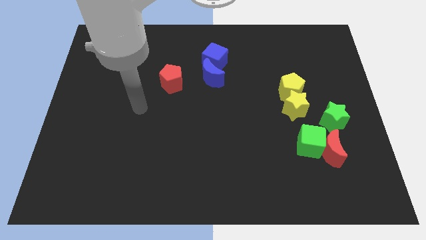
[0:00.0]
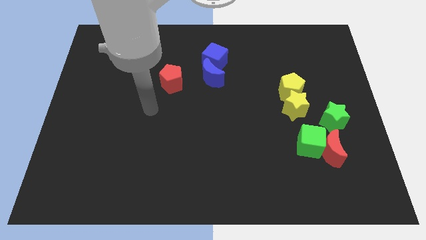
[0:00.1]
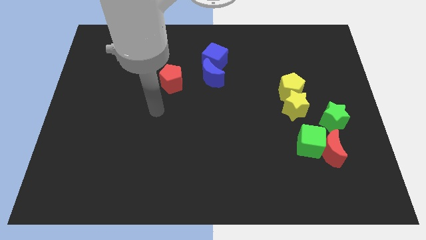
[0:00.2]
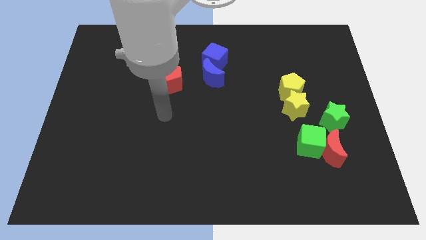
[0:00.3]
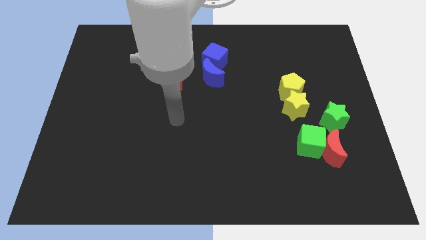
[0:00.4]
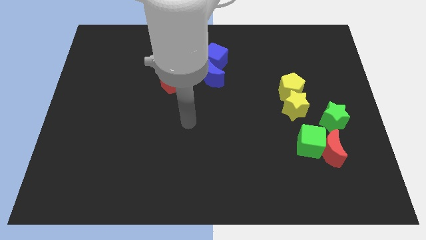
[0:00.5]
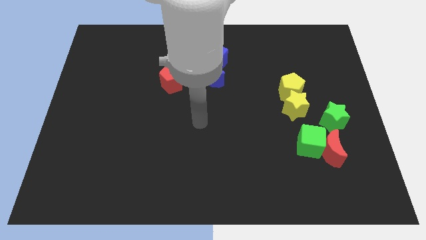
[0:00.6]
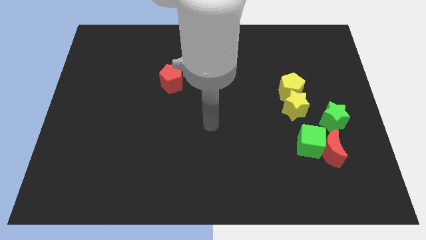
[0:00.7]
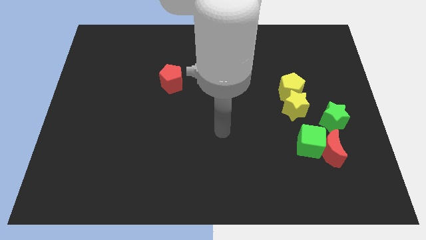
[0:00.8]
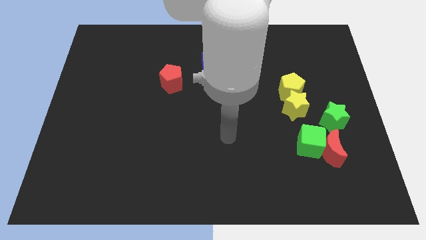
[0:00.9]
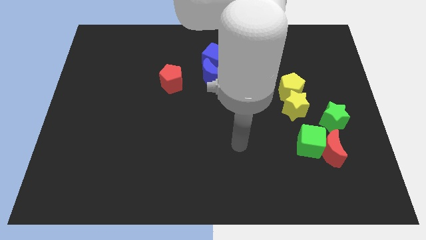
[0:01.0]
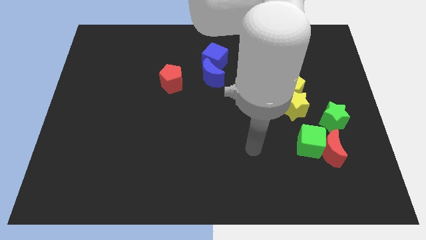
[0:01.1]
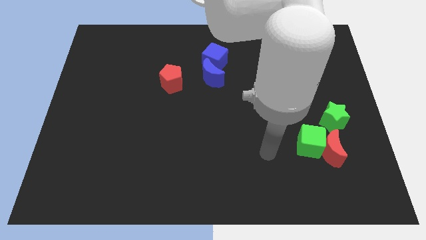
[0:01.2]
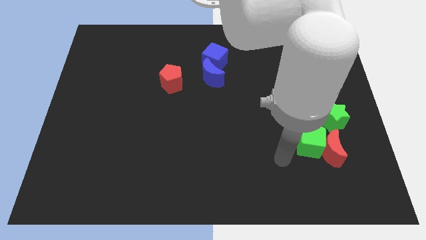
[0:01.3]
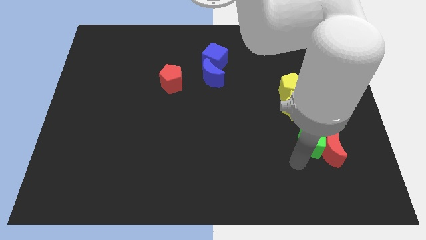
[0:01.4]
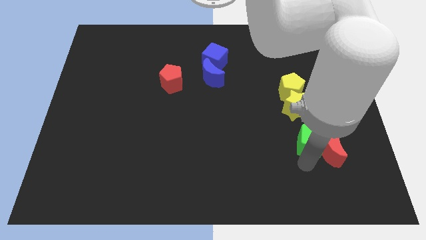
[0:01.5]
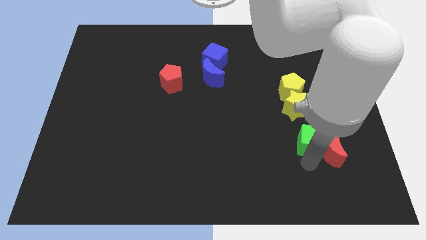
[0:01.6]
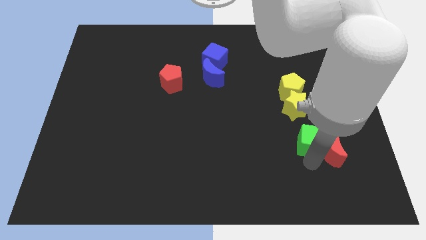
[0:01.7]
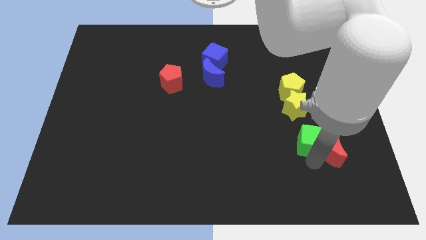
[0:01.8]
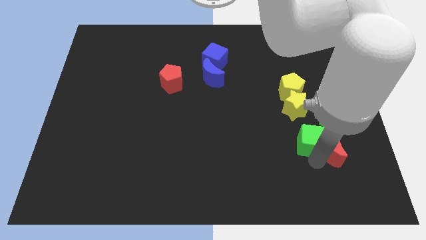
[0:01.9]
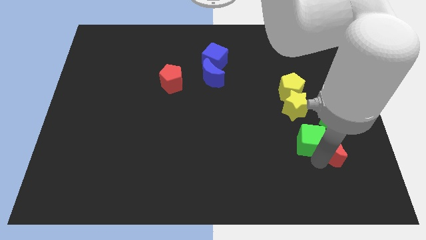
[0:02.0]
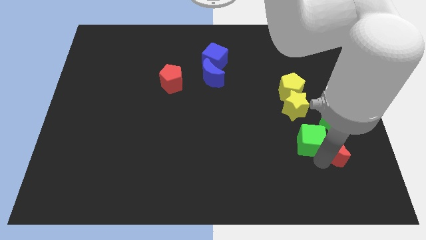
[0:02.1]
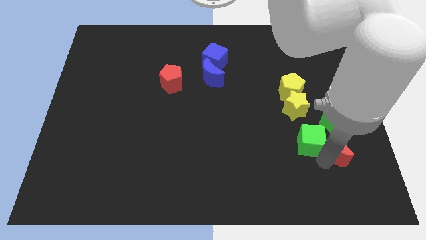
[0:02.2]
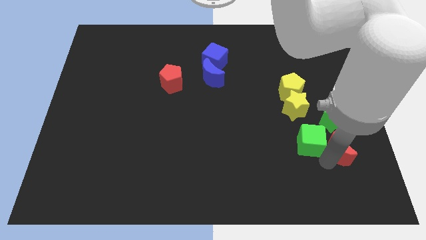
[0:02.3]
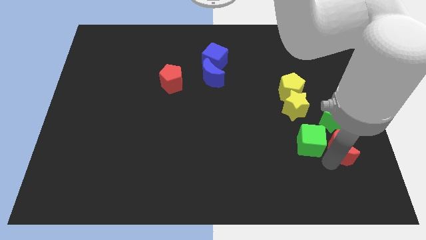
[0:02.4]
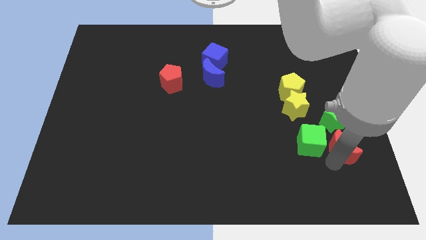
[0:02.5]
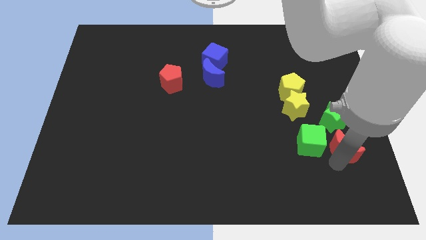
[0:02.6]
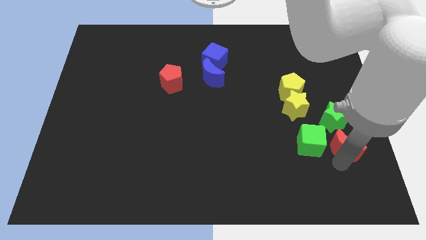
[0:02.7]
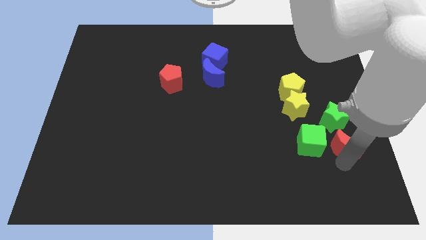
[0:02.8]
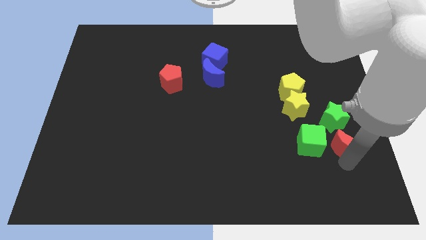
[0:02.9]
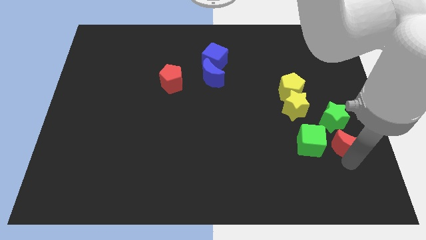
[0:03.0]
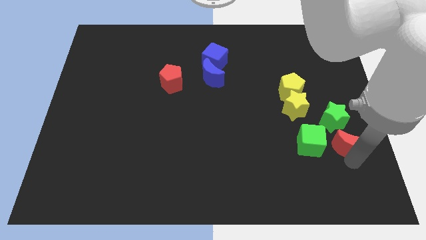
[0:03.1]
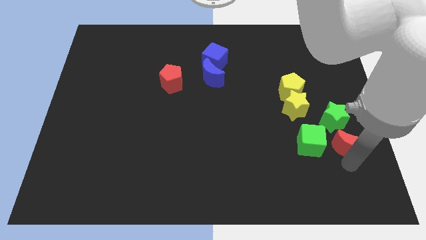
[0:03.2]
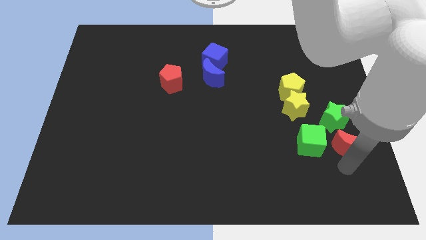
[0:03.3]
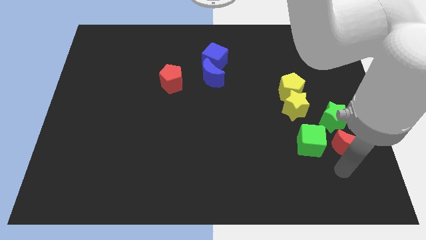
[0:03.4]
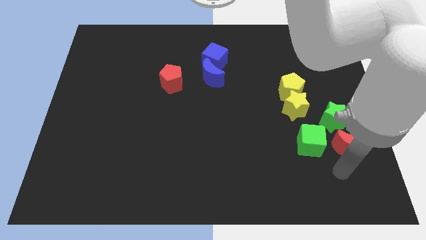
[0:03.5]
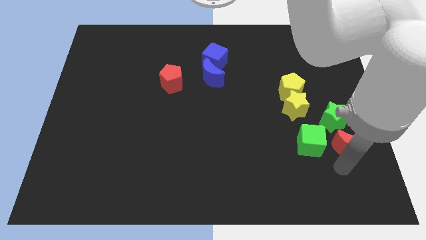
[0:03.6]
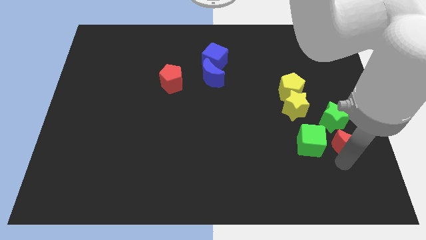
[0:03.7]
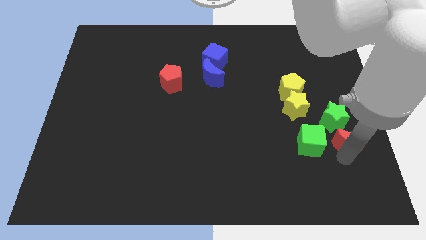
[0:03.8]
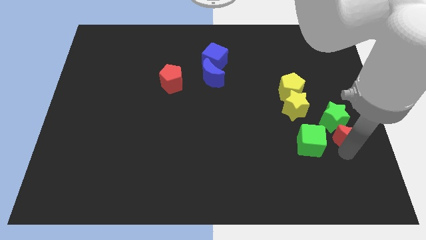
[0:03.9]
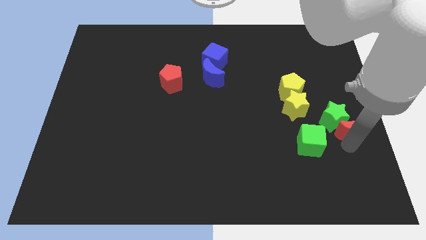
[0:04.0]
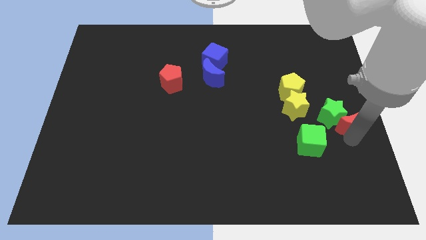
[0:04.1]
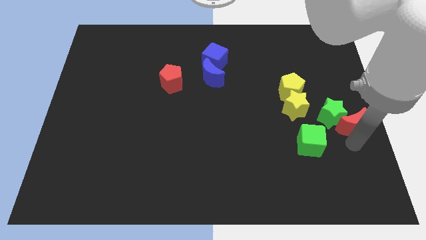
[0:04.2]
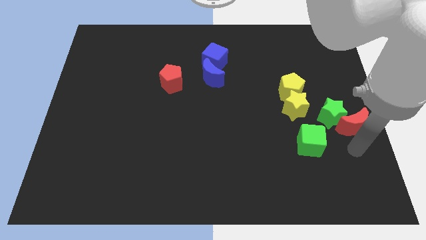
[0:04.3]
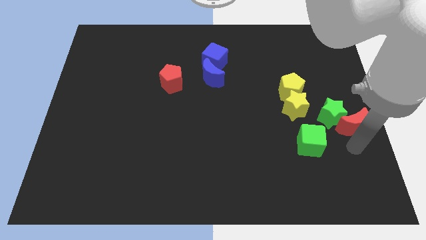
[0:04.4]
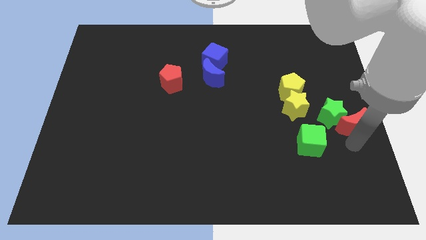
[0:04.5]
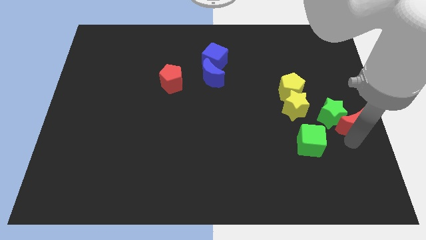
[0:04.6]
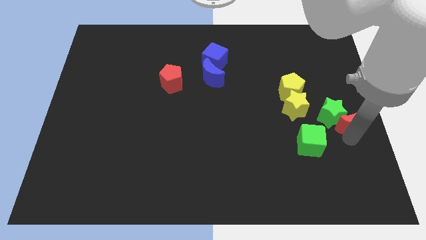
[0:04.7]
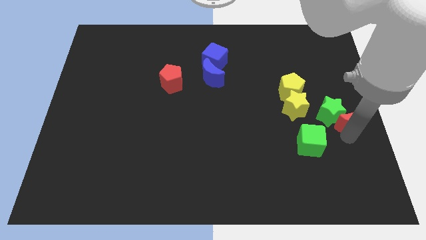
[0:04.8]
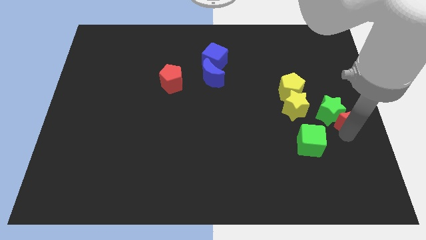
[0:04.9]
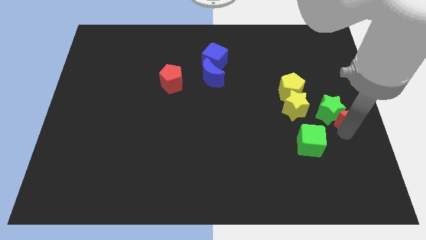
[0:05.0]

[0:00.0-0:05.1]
slightly move the red moon up

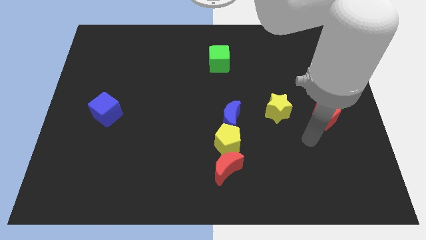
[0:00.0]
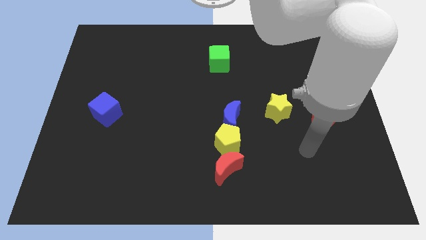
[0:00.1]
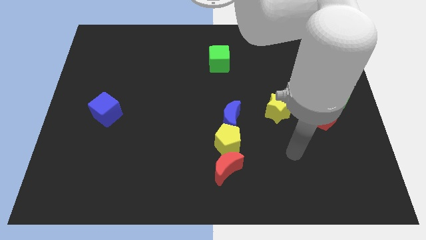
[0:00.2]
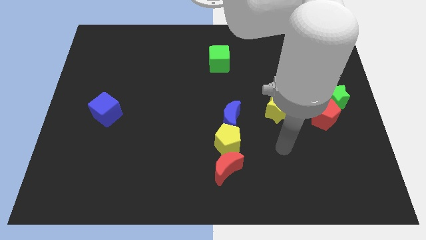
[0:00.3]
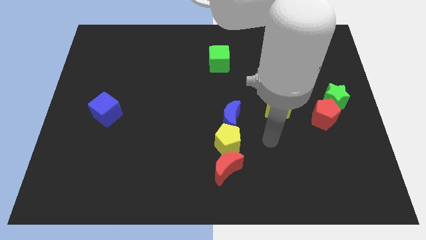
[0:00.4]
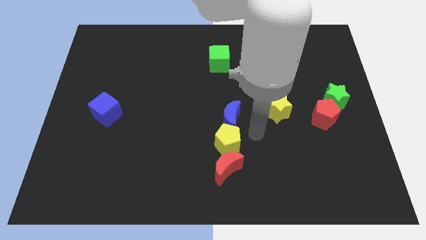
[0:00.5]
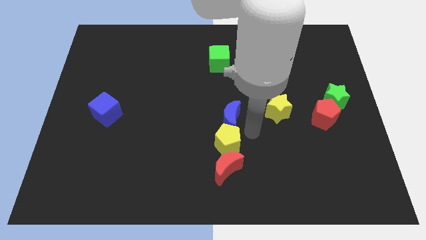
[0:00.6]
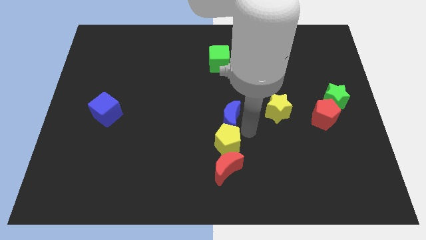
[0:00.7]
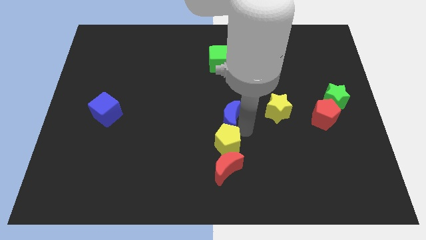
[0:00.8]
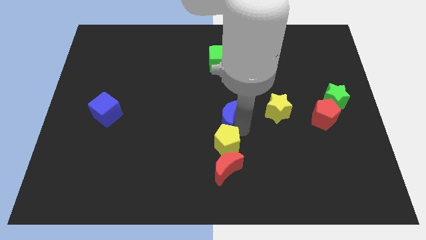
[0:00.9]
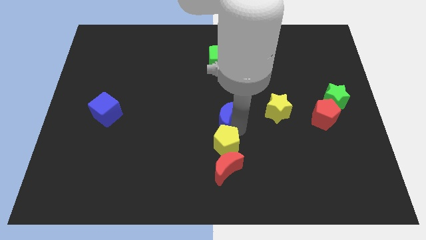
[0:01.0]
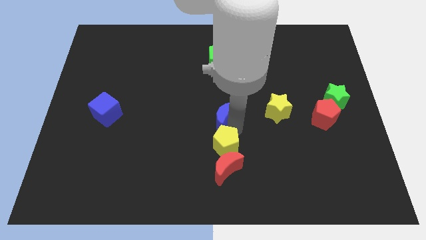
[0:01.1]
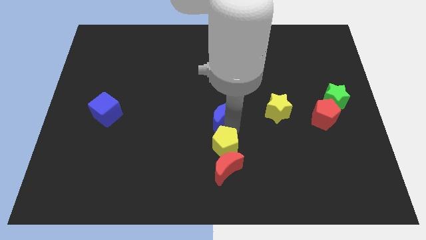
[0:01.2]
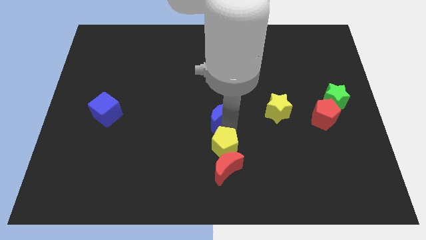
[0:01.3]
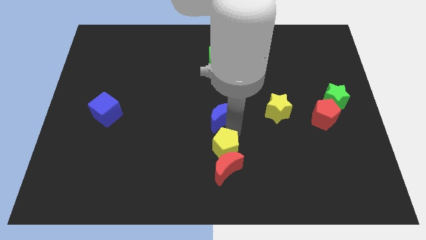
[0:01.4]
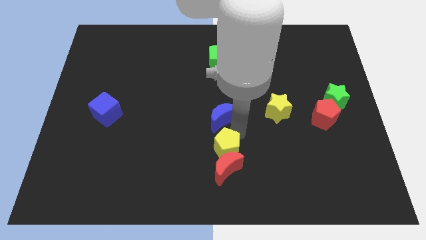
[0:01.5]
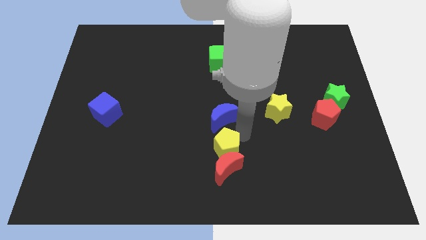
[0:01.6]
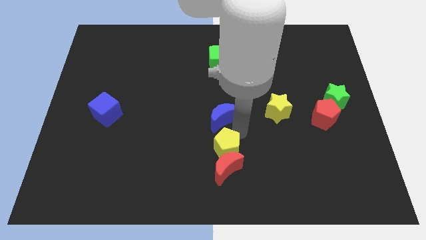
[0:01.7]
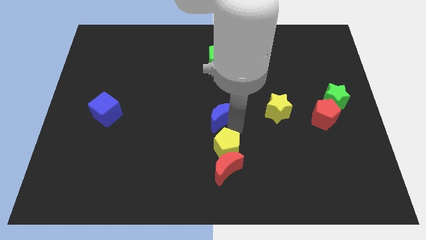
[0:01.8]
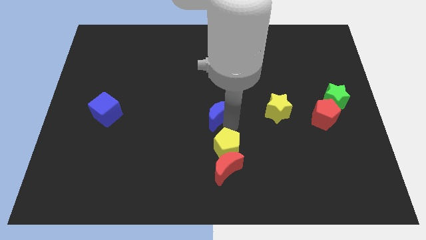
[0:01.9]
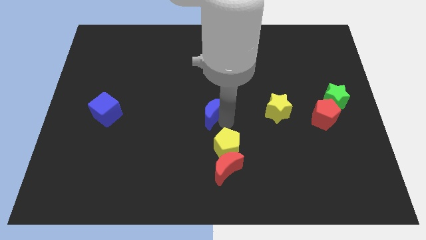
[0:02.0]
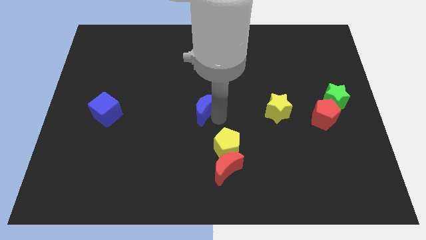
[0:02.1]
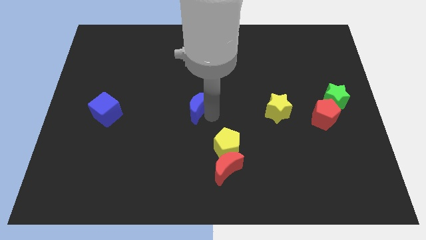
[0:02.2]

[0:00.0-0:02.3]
slightly slide the blue moon up and to the left diagonally
